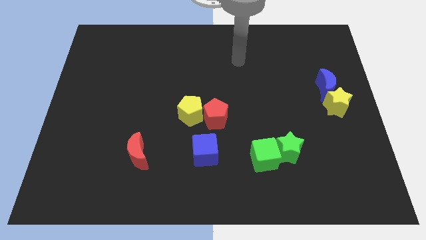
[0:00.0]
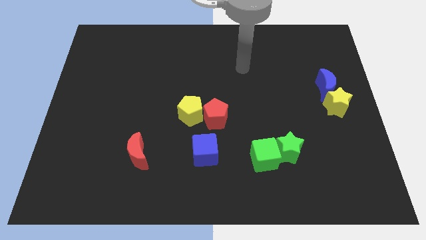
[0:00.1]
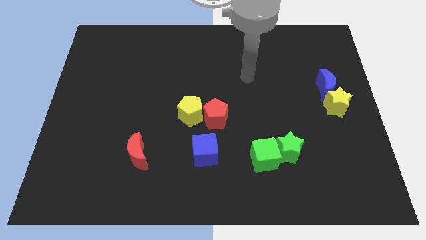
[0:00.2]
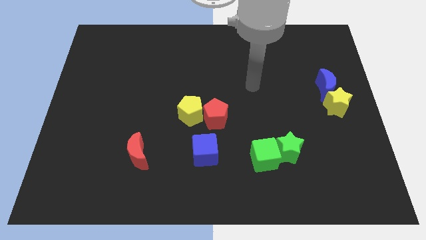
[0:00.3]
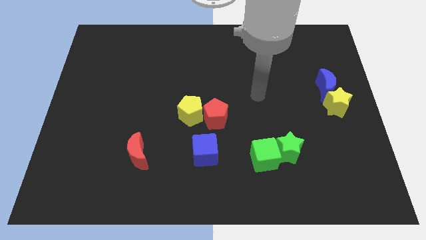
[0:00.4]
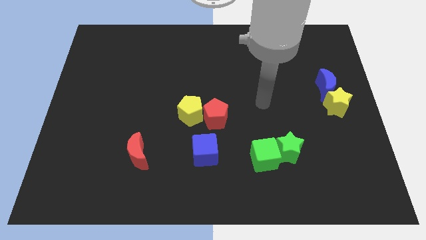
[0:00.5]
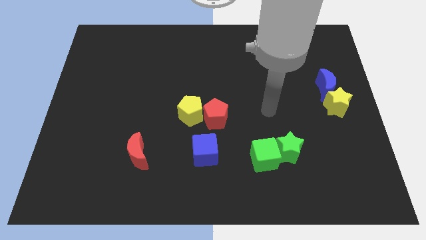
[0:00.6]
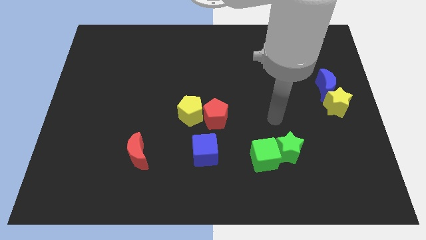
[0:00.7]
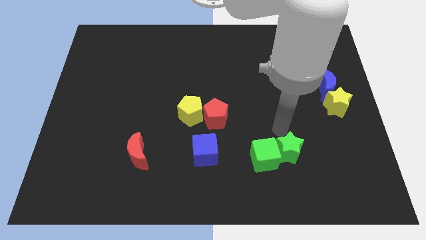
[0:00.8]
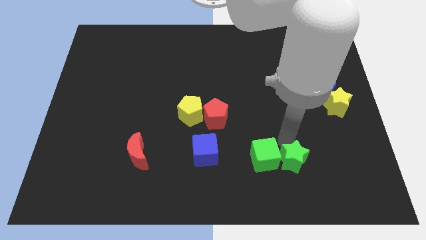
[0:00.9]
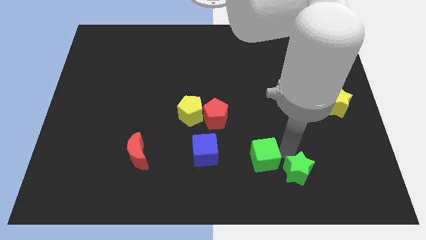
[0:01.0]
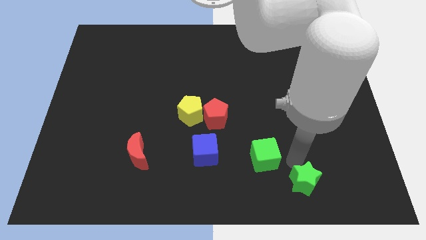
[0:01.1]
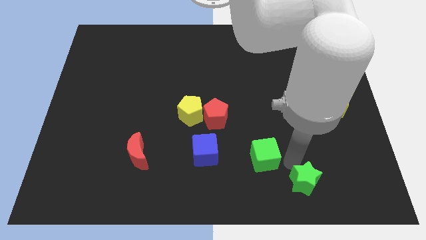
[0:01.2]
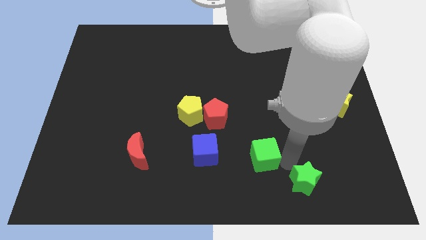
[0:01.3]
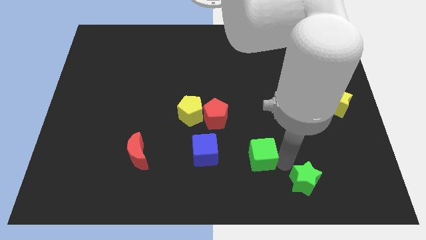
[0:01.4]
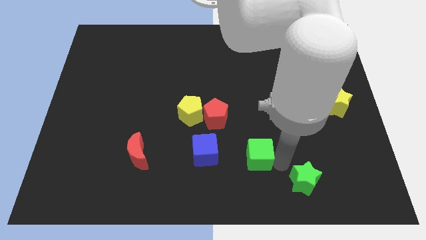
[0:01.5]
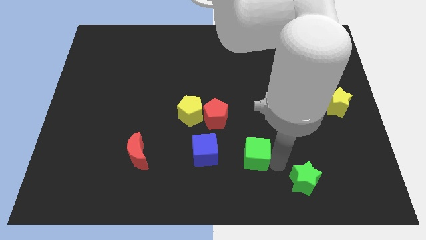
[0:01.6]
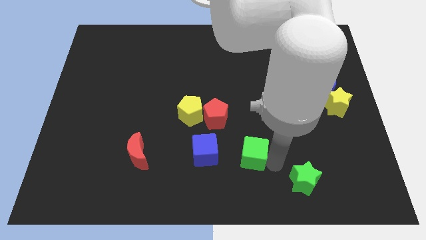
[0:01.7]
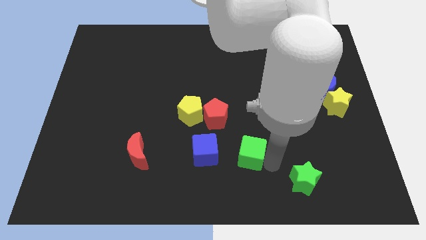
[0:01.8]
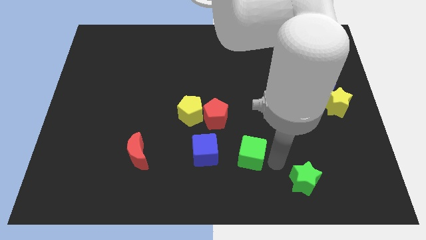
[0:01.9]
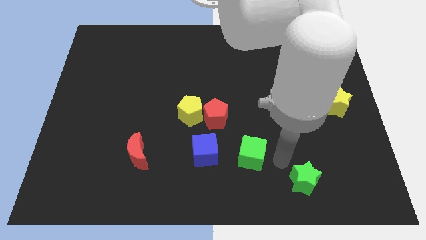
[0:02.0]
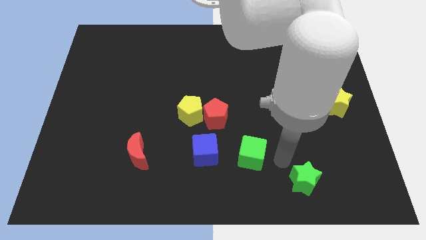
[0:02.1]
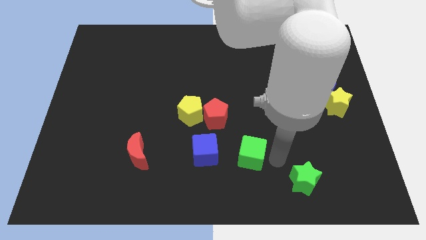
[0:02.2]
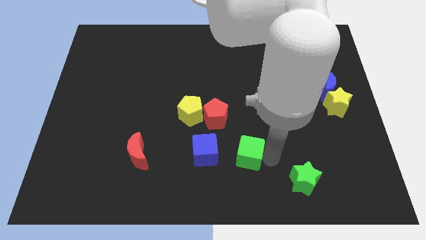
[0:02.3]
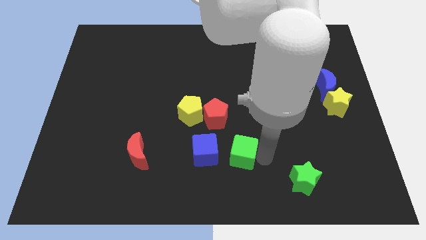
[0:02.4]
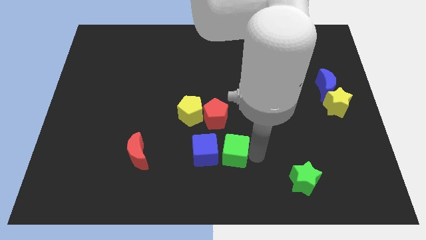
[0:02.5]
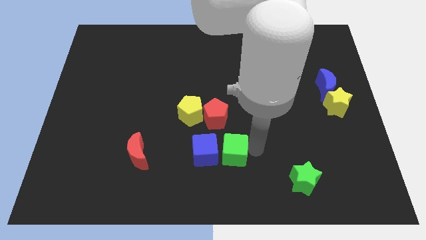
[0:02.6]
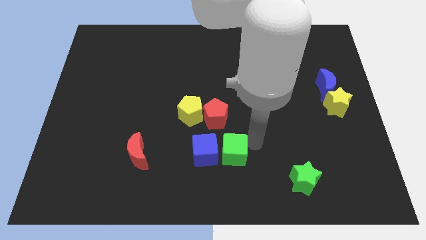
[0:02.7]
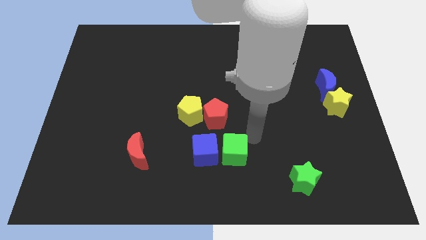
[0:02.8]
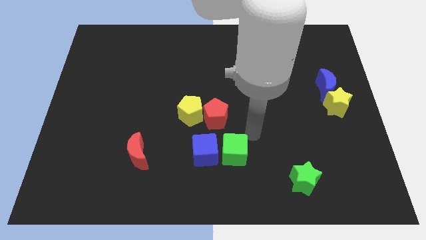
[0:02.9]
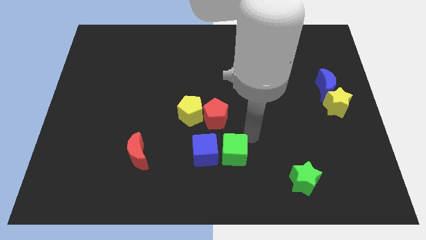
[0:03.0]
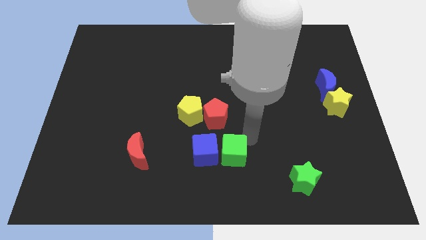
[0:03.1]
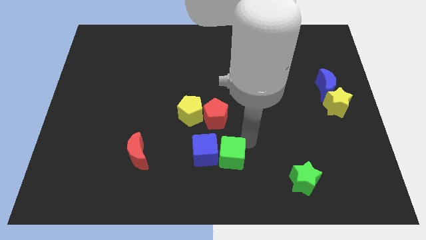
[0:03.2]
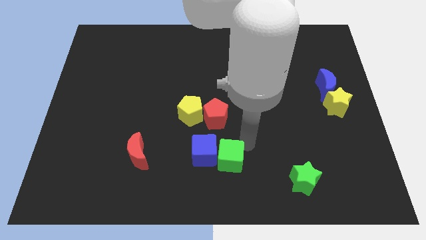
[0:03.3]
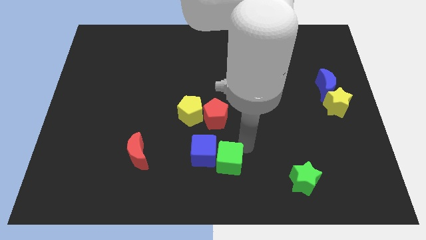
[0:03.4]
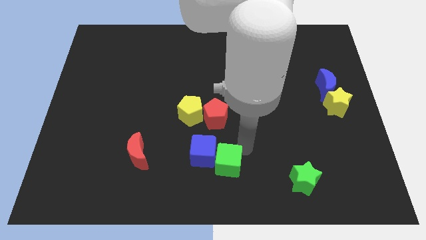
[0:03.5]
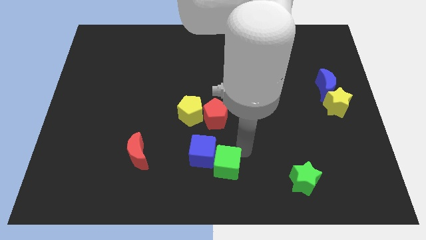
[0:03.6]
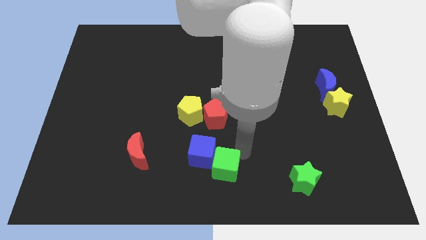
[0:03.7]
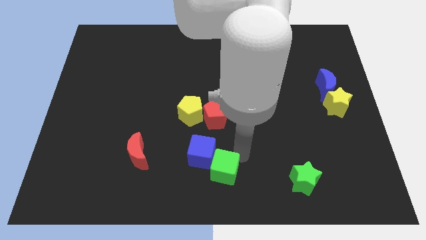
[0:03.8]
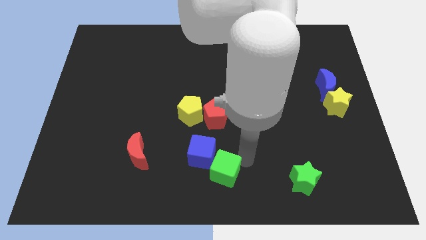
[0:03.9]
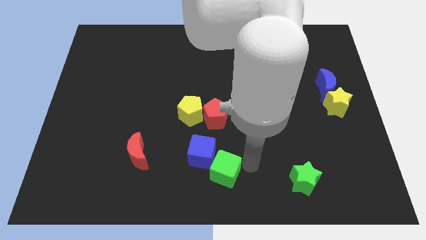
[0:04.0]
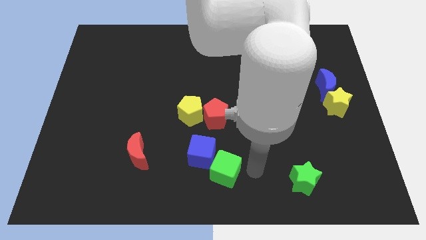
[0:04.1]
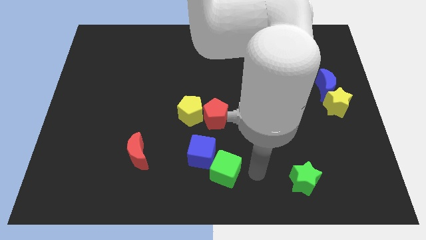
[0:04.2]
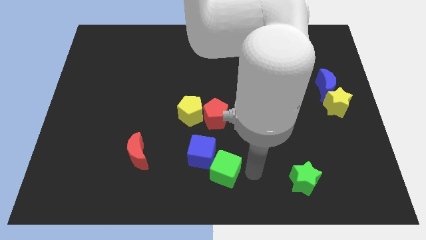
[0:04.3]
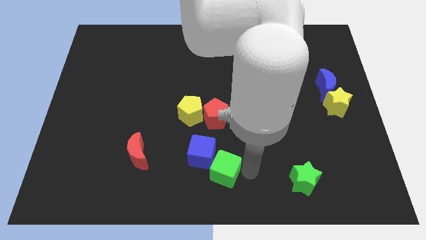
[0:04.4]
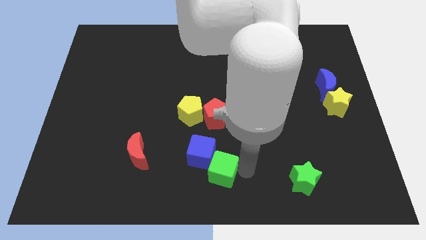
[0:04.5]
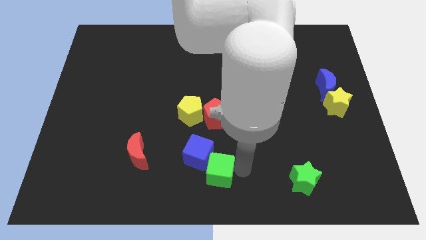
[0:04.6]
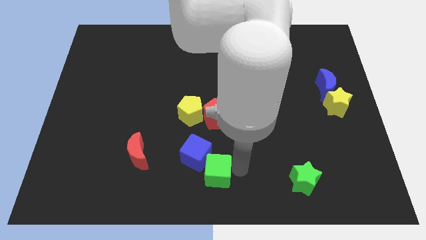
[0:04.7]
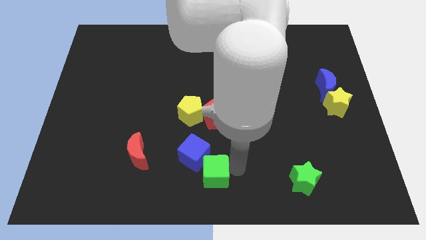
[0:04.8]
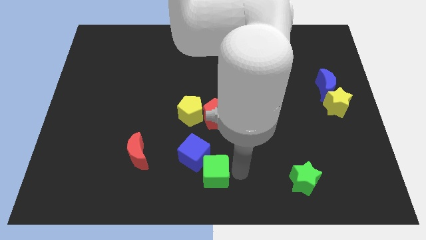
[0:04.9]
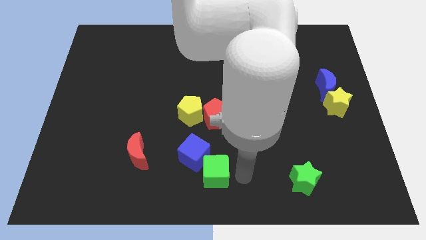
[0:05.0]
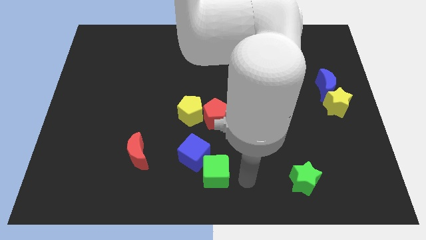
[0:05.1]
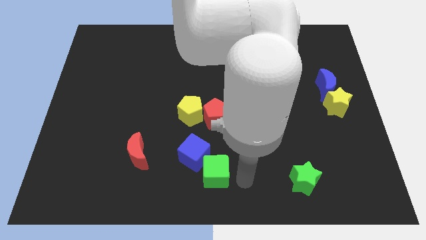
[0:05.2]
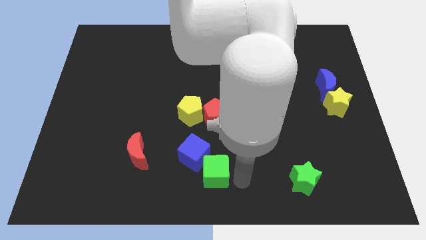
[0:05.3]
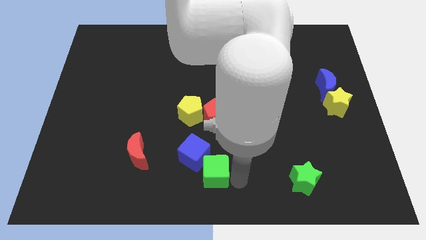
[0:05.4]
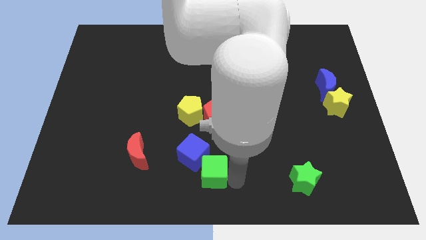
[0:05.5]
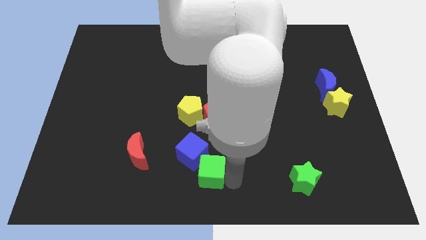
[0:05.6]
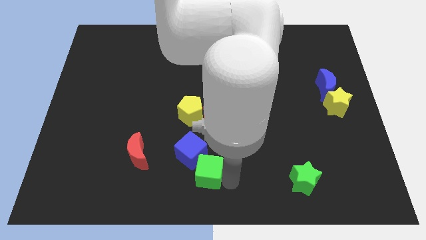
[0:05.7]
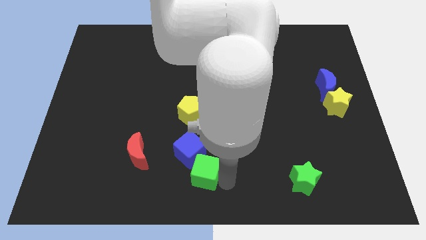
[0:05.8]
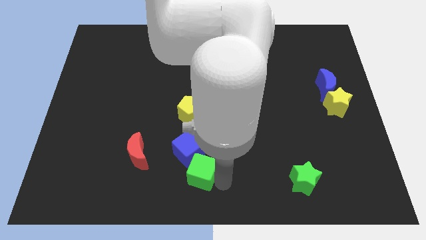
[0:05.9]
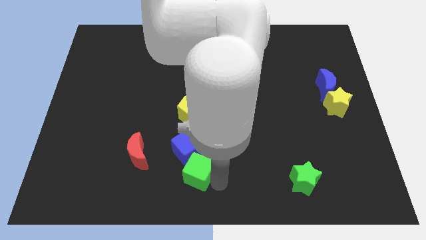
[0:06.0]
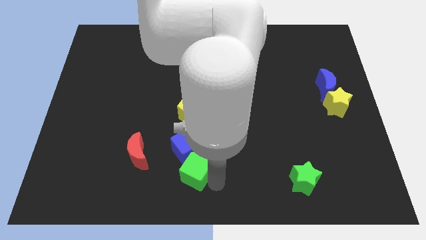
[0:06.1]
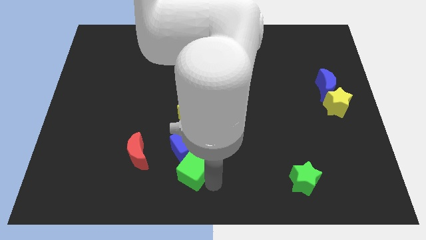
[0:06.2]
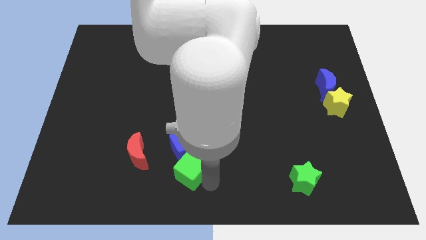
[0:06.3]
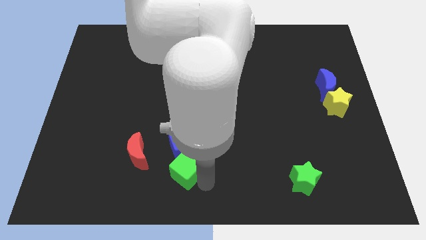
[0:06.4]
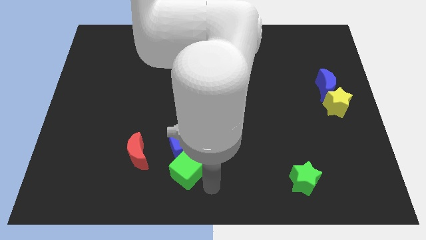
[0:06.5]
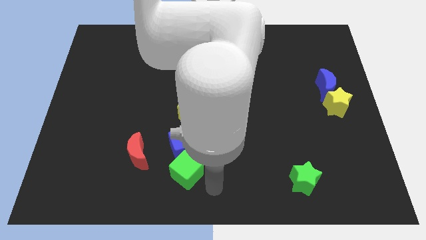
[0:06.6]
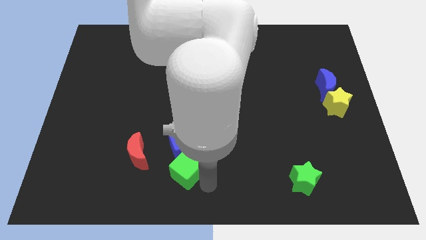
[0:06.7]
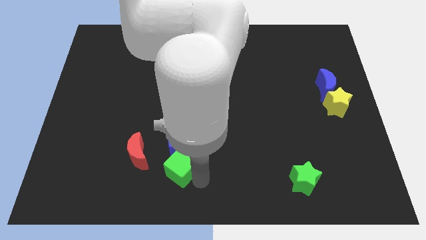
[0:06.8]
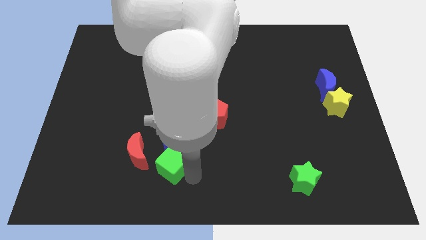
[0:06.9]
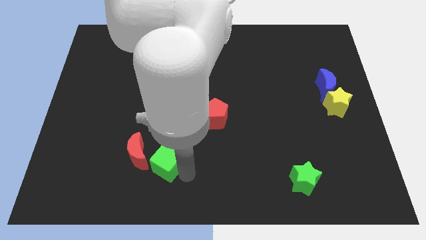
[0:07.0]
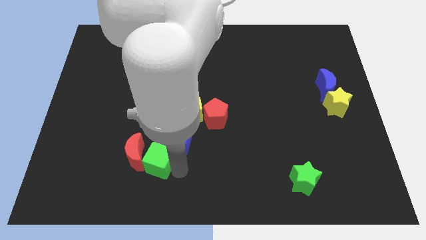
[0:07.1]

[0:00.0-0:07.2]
push the green cube close to the red moon

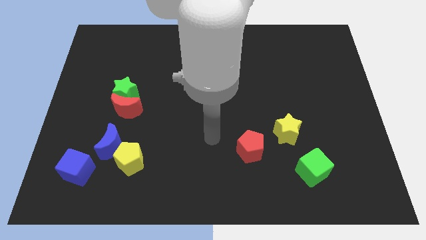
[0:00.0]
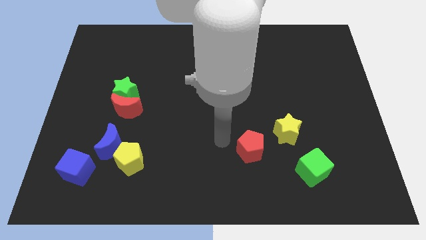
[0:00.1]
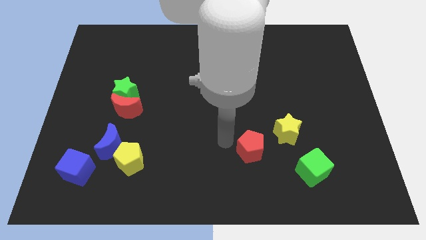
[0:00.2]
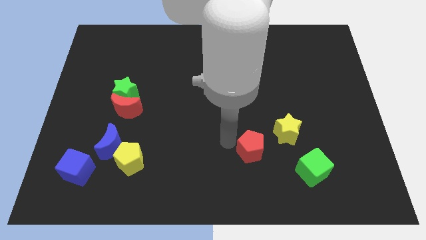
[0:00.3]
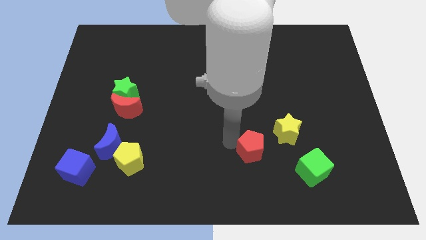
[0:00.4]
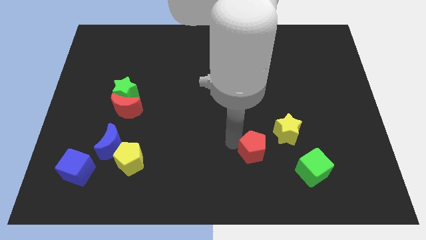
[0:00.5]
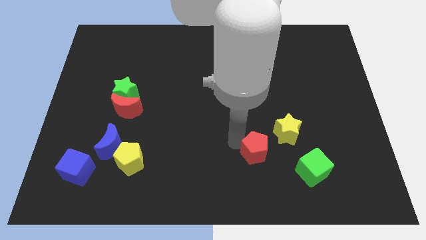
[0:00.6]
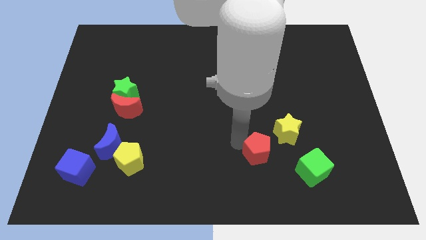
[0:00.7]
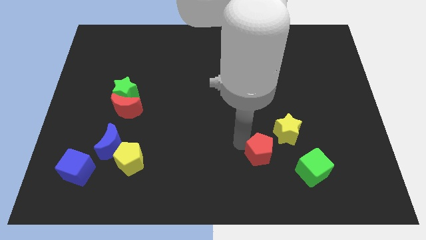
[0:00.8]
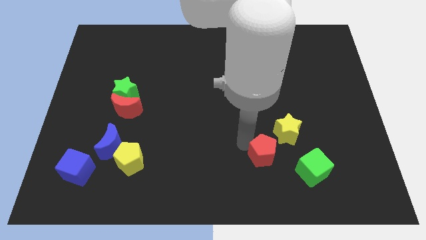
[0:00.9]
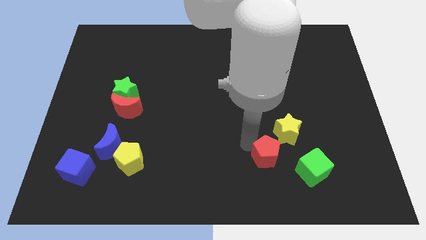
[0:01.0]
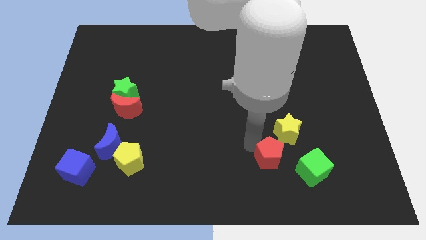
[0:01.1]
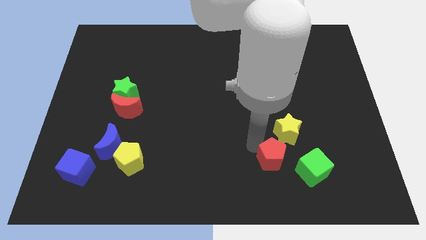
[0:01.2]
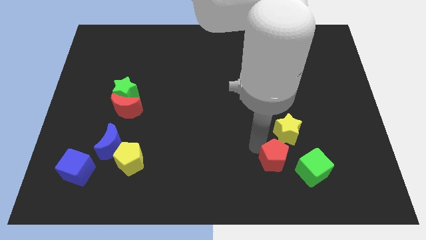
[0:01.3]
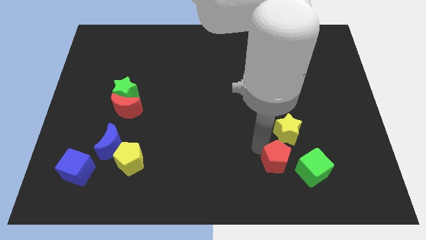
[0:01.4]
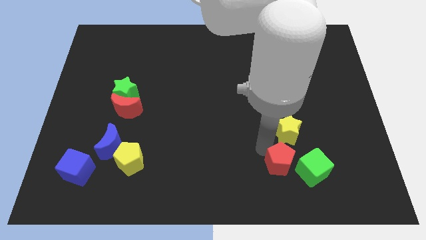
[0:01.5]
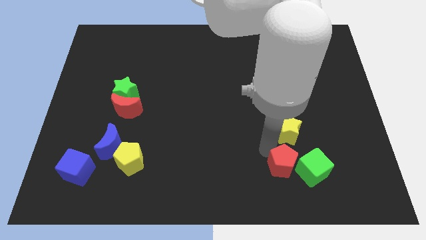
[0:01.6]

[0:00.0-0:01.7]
put the red pentagon close to the green cube
